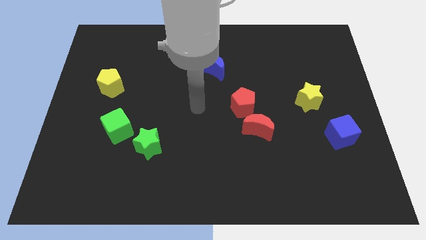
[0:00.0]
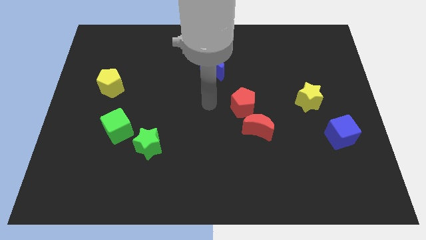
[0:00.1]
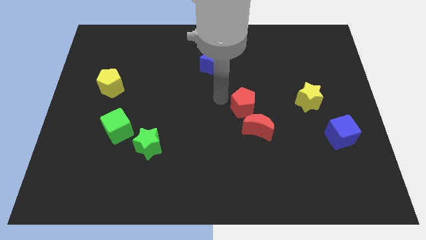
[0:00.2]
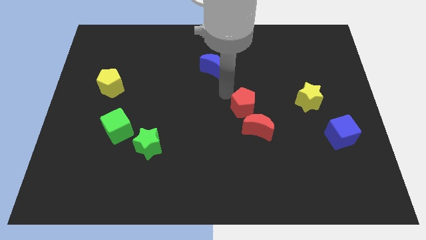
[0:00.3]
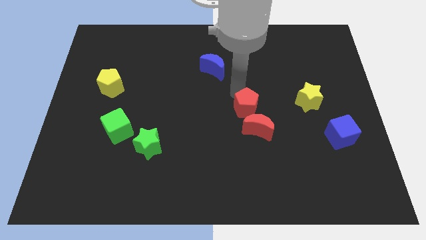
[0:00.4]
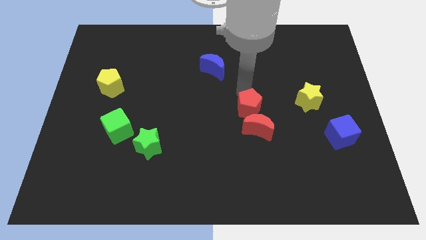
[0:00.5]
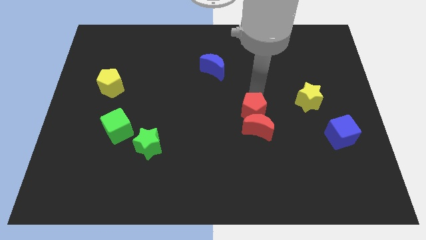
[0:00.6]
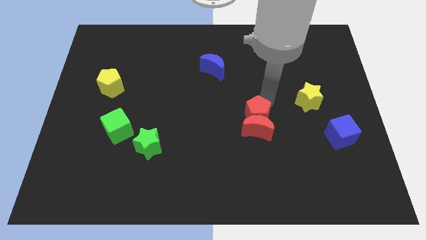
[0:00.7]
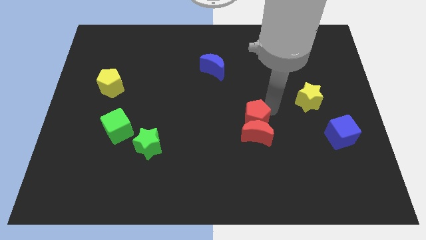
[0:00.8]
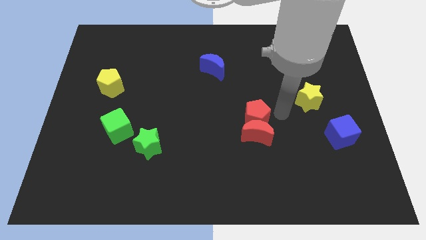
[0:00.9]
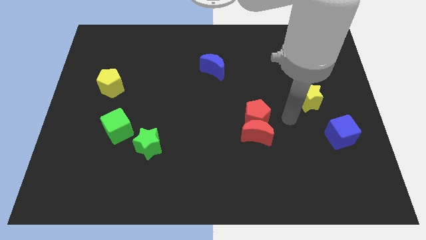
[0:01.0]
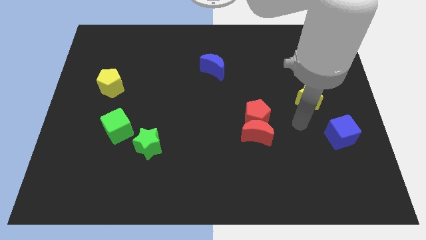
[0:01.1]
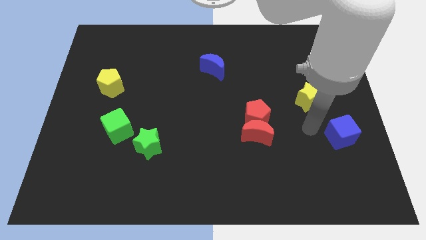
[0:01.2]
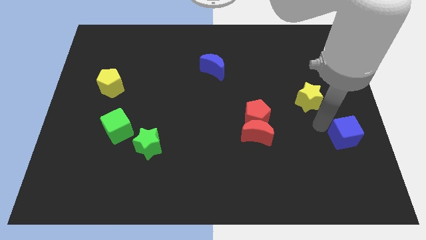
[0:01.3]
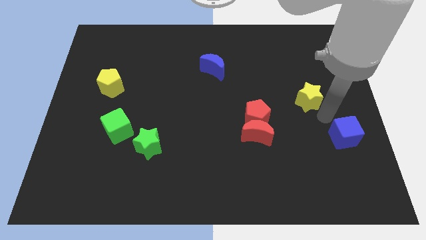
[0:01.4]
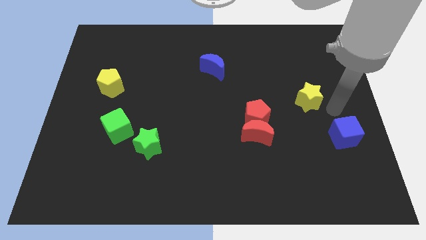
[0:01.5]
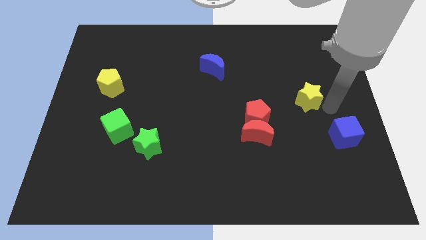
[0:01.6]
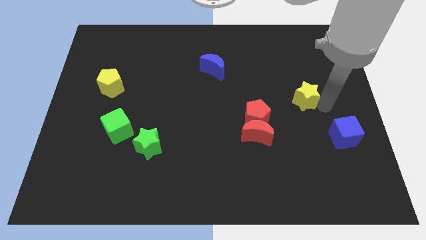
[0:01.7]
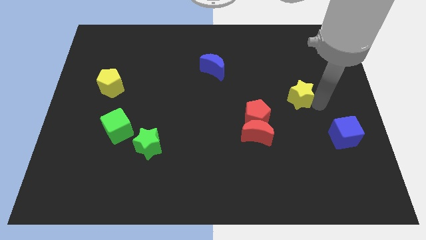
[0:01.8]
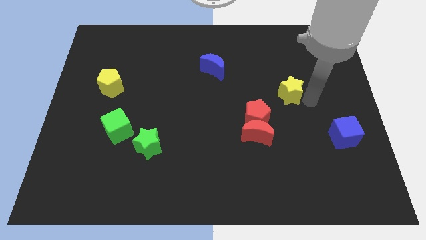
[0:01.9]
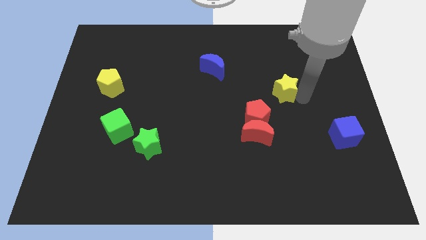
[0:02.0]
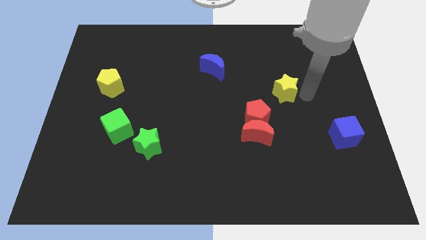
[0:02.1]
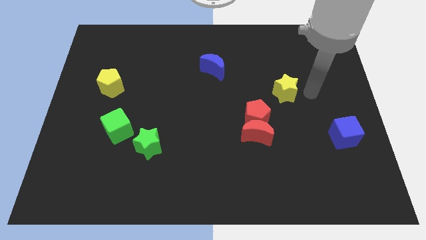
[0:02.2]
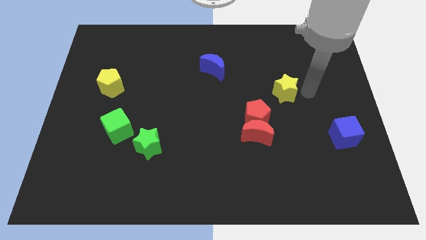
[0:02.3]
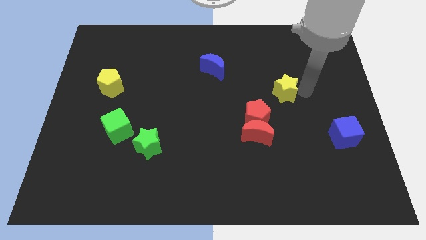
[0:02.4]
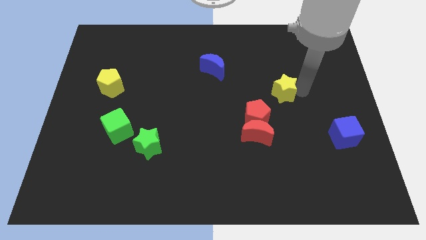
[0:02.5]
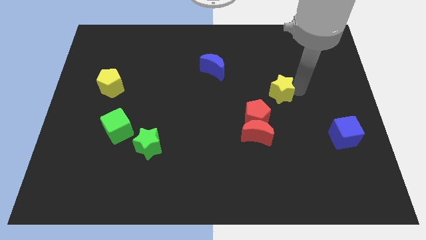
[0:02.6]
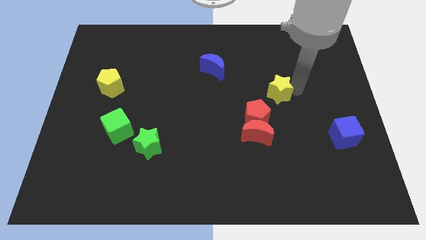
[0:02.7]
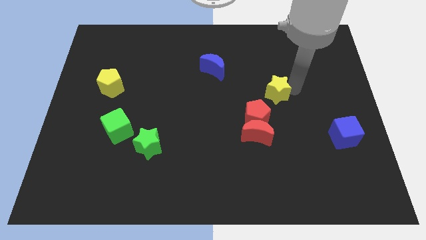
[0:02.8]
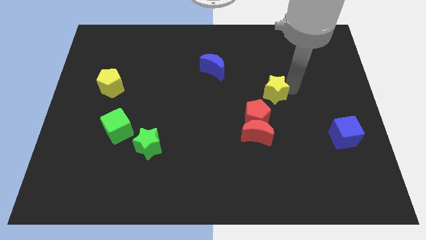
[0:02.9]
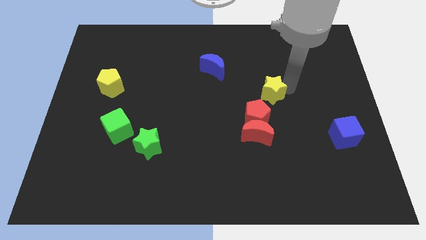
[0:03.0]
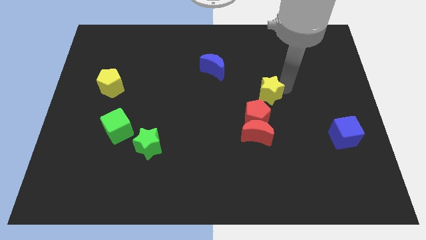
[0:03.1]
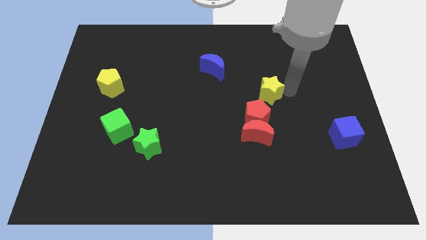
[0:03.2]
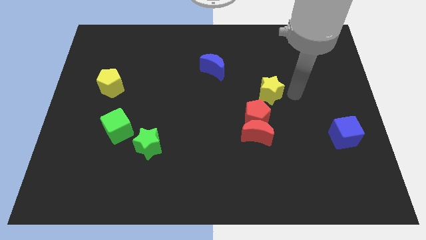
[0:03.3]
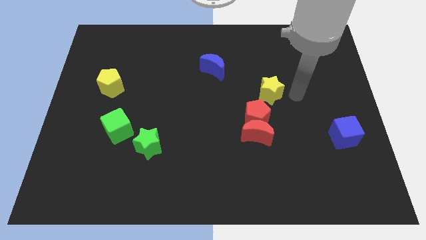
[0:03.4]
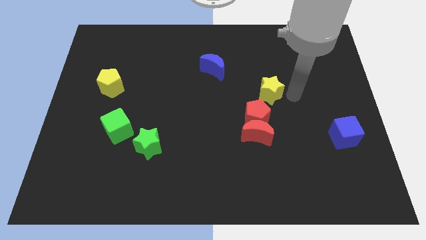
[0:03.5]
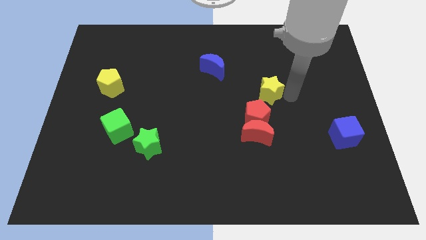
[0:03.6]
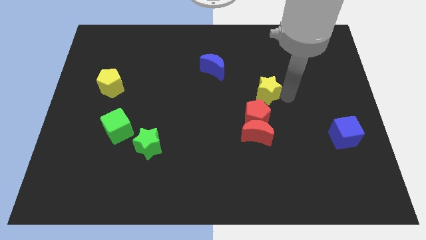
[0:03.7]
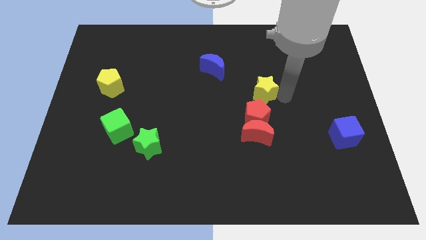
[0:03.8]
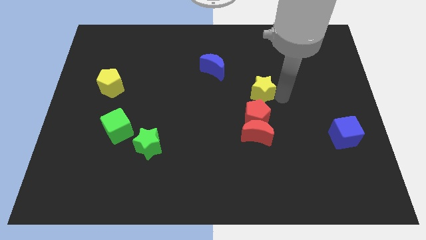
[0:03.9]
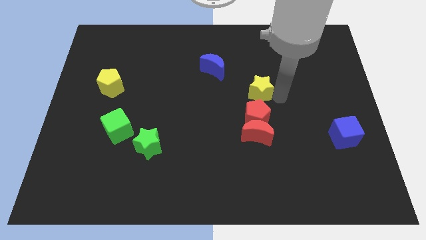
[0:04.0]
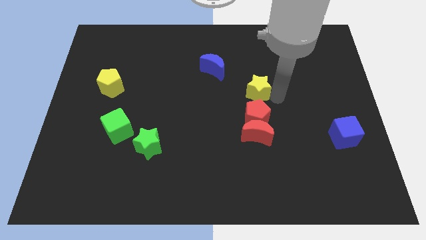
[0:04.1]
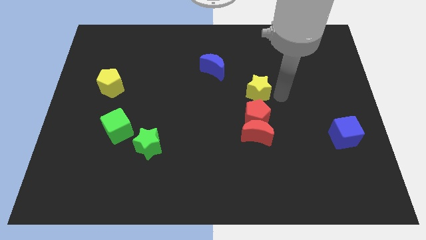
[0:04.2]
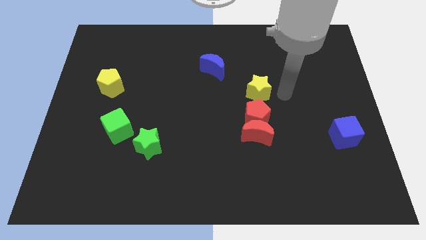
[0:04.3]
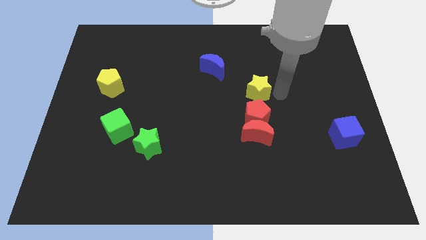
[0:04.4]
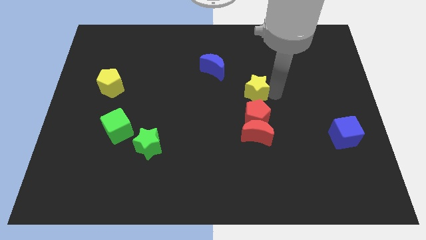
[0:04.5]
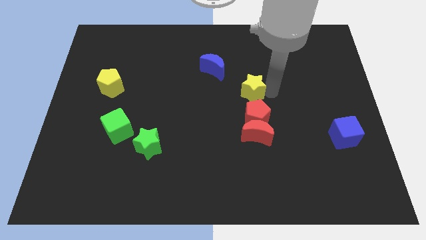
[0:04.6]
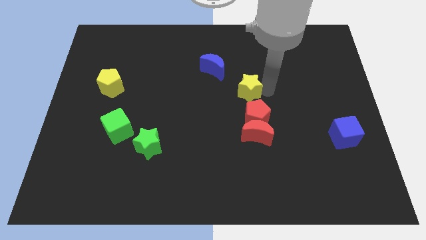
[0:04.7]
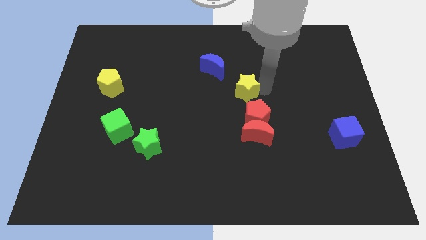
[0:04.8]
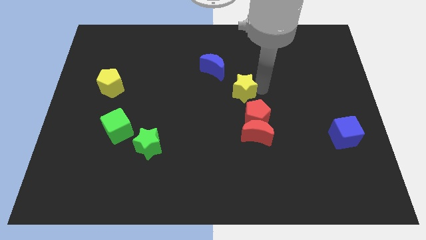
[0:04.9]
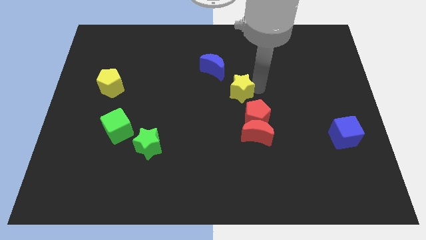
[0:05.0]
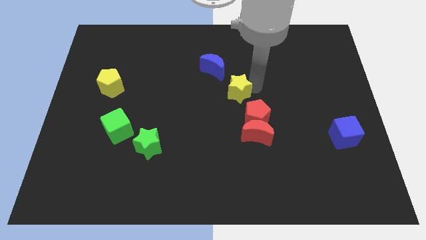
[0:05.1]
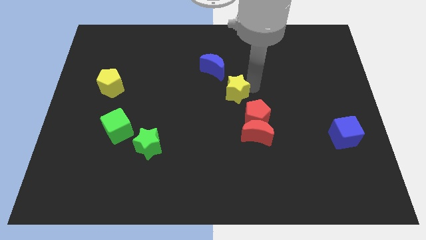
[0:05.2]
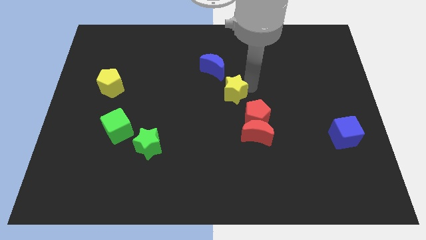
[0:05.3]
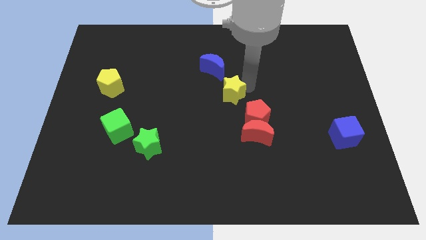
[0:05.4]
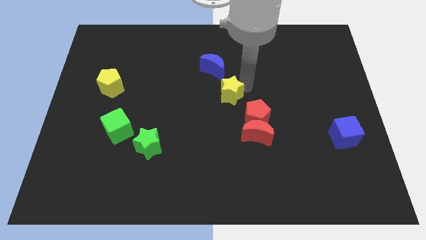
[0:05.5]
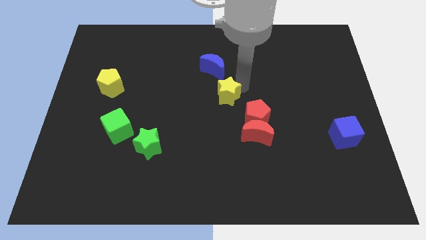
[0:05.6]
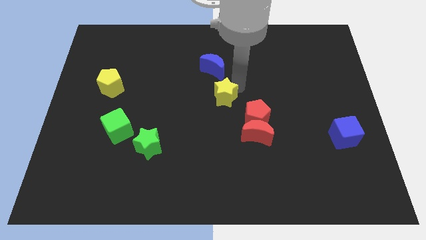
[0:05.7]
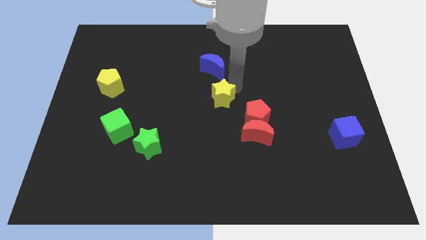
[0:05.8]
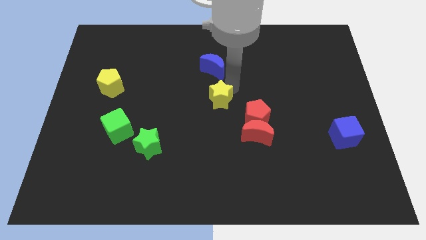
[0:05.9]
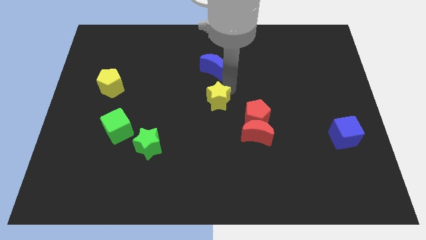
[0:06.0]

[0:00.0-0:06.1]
put the yellow star just left of the red pentagon

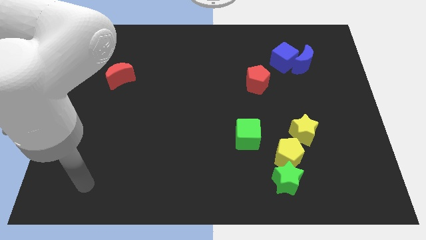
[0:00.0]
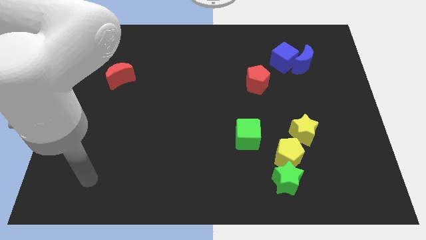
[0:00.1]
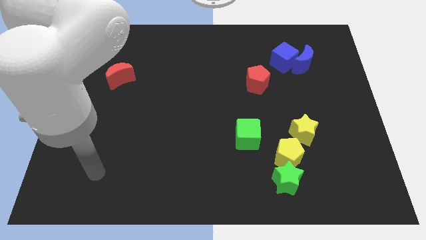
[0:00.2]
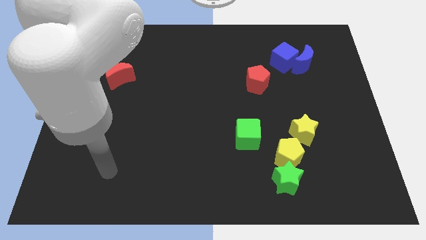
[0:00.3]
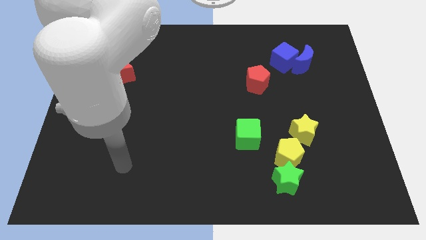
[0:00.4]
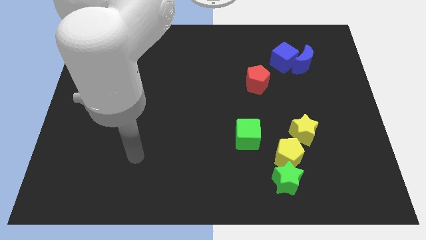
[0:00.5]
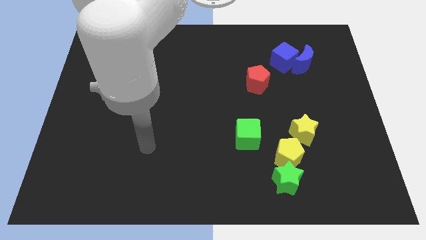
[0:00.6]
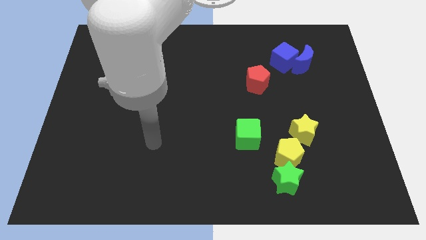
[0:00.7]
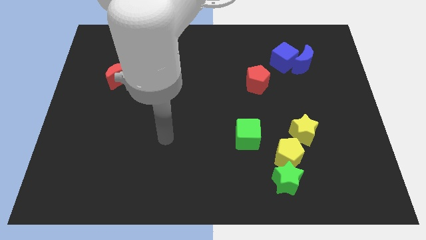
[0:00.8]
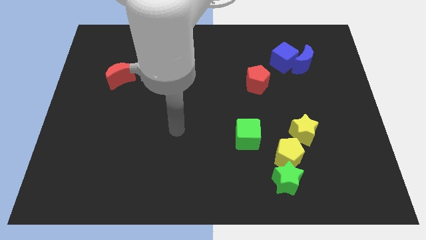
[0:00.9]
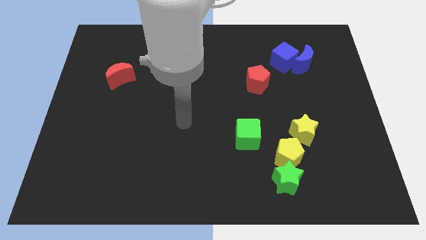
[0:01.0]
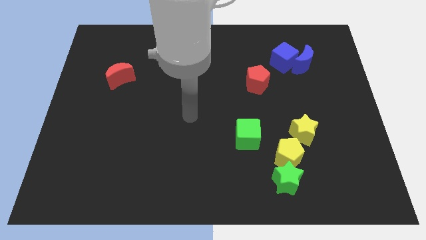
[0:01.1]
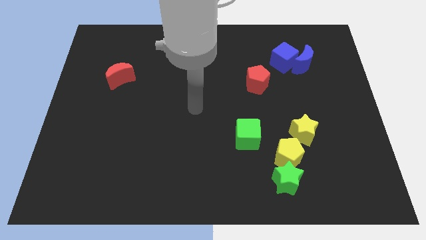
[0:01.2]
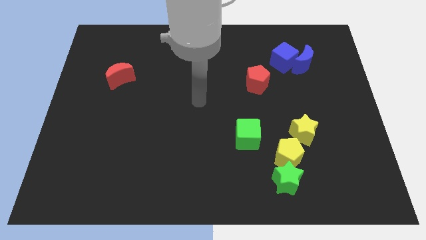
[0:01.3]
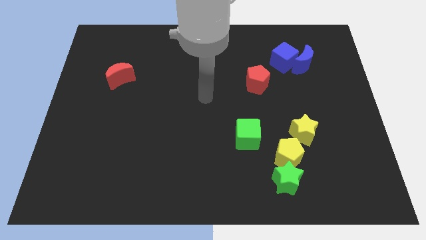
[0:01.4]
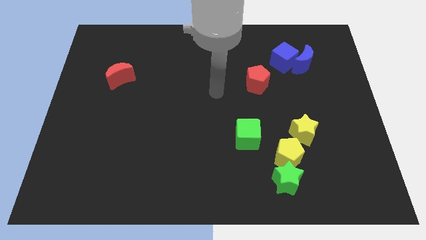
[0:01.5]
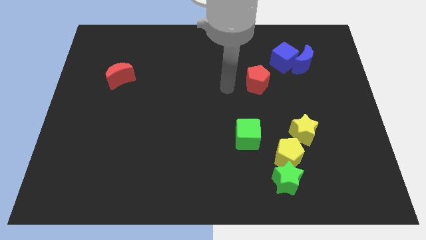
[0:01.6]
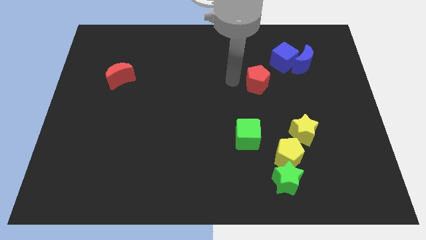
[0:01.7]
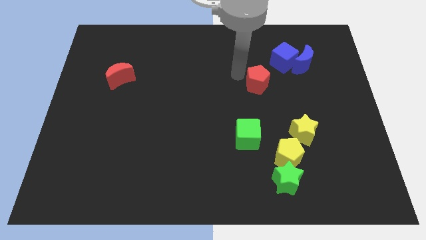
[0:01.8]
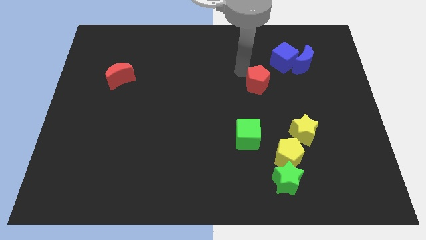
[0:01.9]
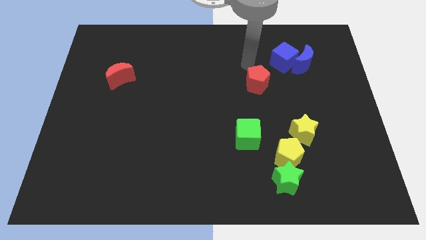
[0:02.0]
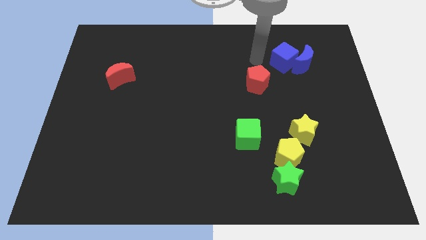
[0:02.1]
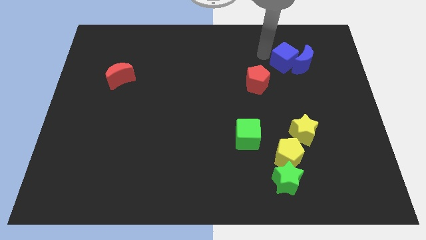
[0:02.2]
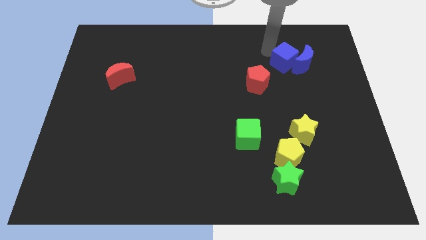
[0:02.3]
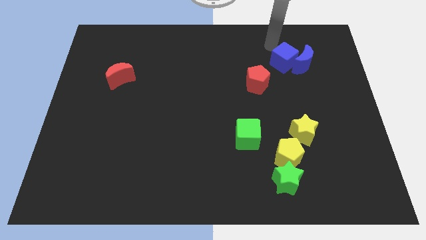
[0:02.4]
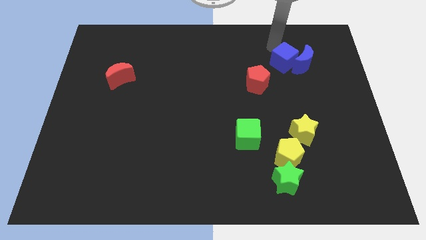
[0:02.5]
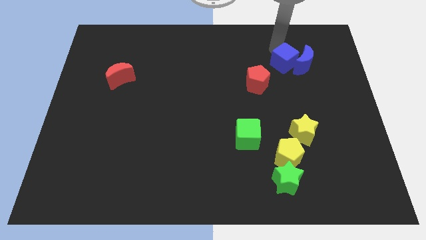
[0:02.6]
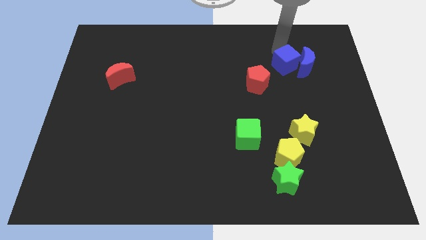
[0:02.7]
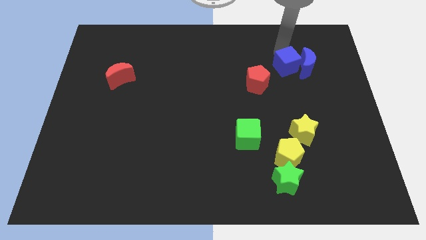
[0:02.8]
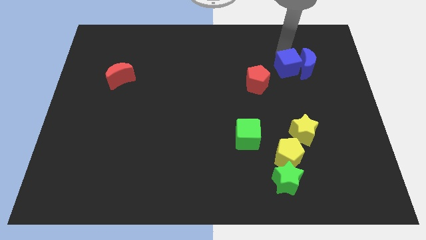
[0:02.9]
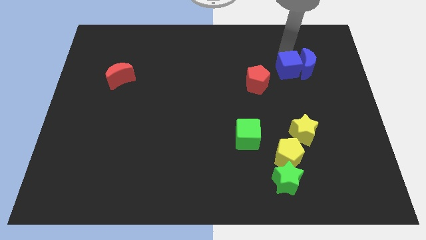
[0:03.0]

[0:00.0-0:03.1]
slide the blue cube to the right of the red pentagon
